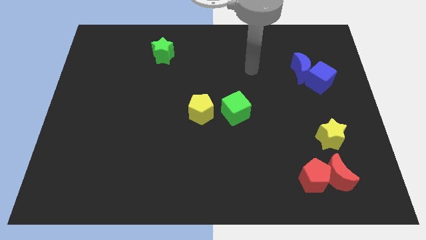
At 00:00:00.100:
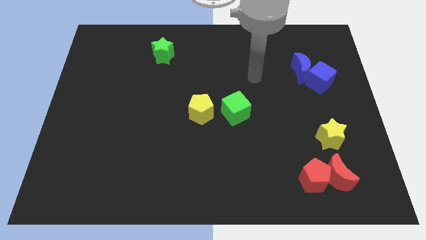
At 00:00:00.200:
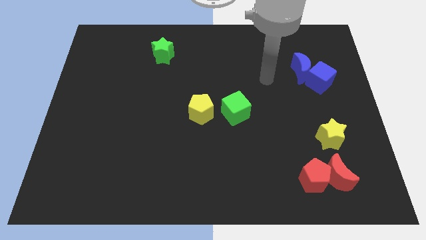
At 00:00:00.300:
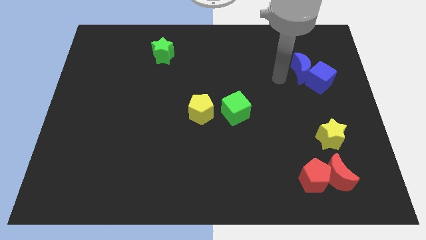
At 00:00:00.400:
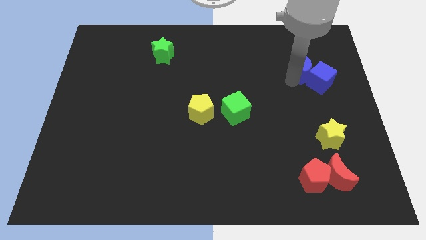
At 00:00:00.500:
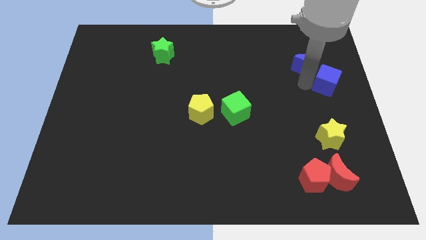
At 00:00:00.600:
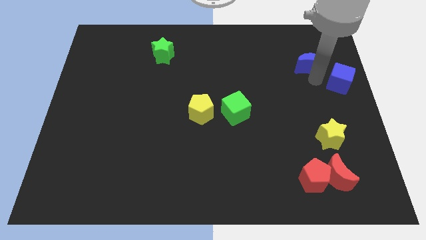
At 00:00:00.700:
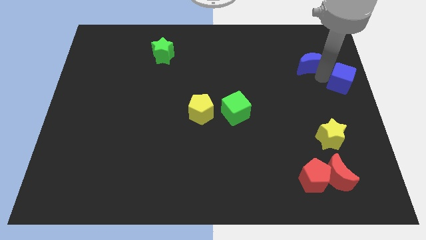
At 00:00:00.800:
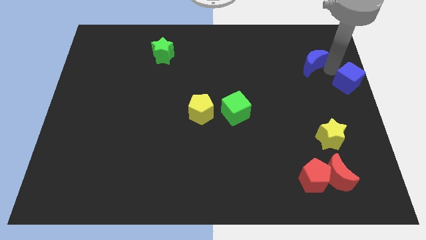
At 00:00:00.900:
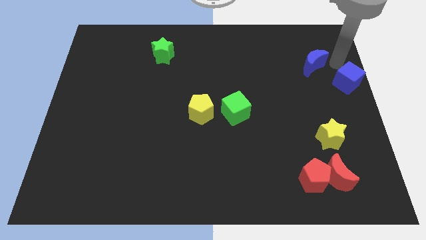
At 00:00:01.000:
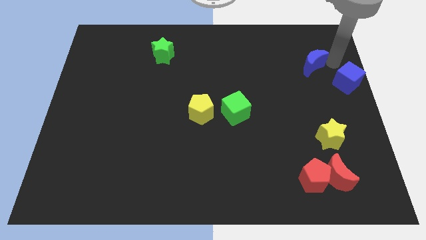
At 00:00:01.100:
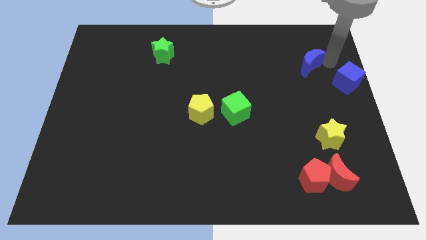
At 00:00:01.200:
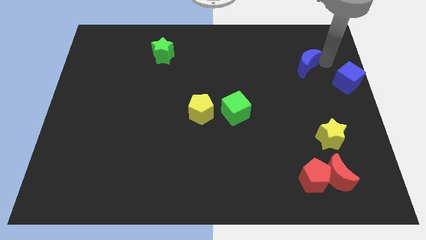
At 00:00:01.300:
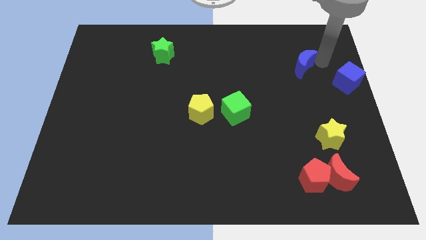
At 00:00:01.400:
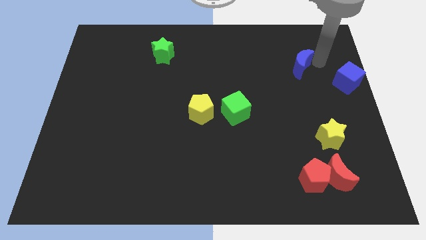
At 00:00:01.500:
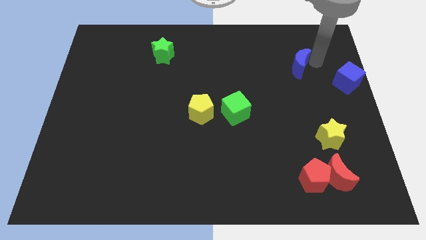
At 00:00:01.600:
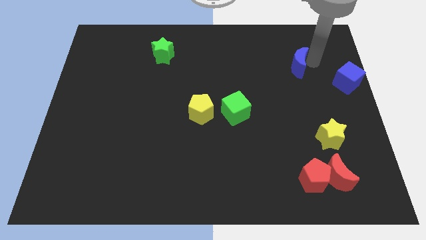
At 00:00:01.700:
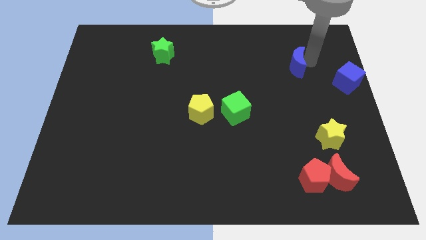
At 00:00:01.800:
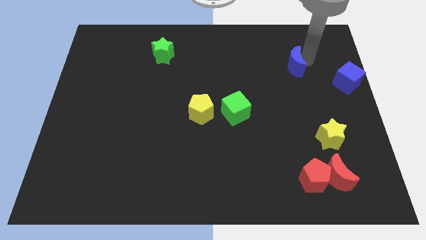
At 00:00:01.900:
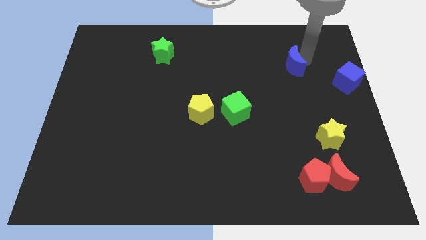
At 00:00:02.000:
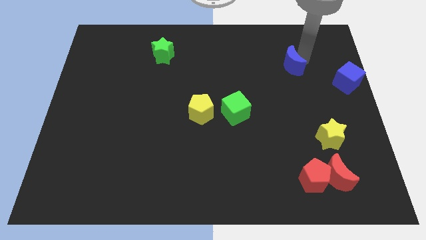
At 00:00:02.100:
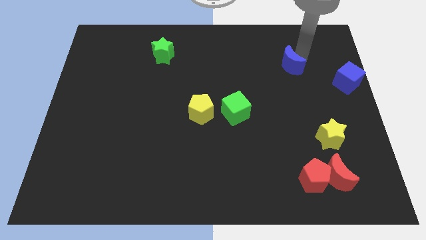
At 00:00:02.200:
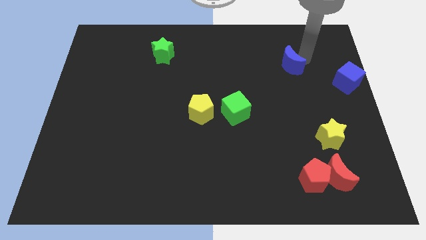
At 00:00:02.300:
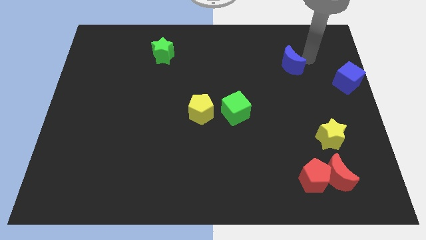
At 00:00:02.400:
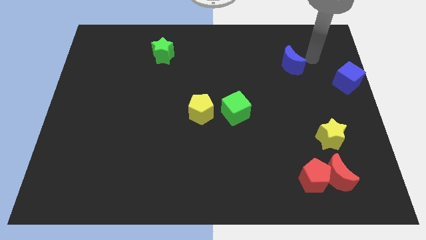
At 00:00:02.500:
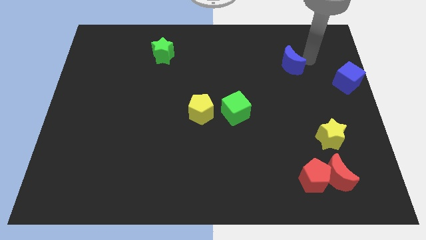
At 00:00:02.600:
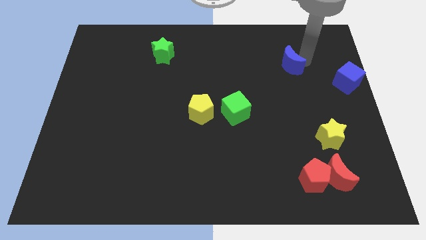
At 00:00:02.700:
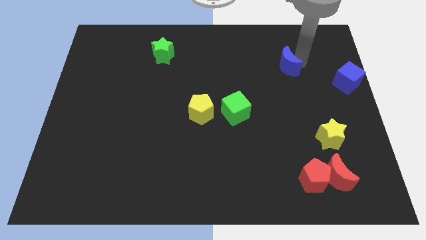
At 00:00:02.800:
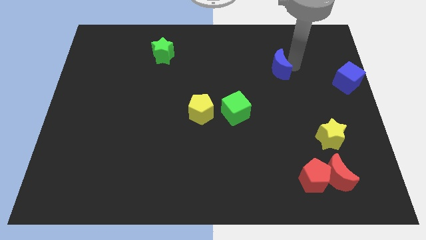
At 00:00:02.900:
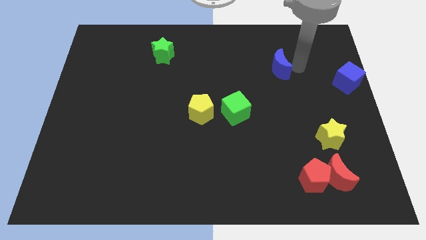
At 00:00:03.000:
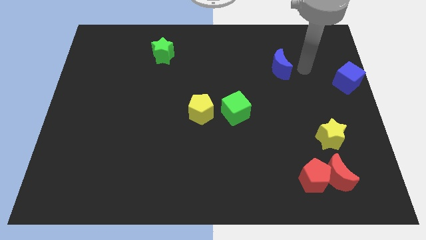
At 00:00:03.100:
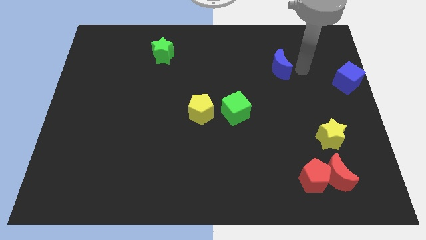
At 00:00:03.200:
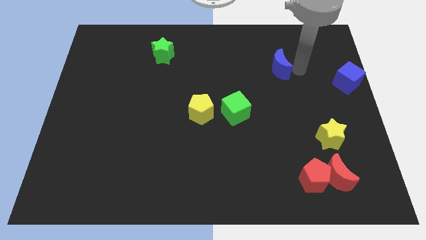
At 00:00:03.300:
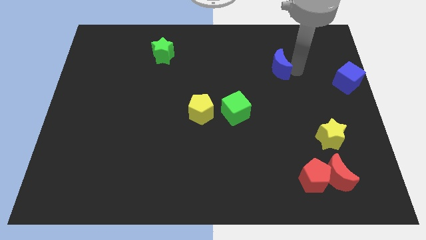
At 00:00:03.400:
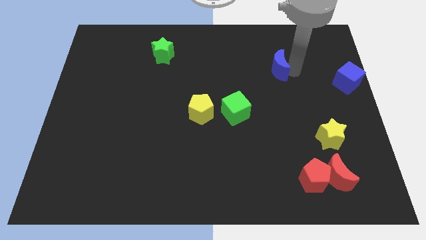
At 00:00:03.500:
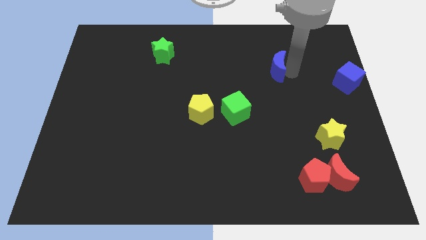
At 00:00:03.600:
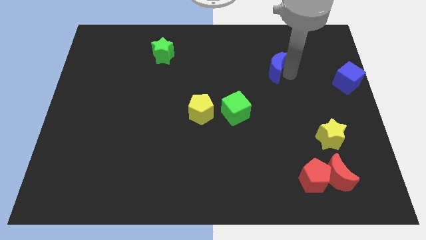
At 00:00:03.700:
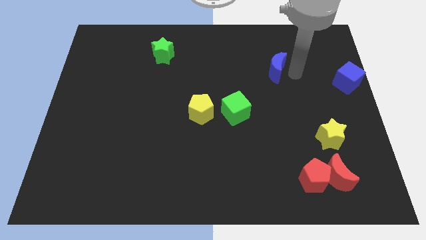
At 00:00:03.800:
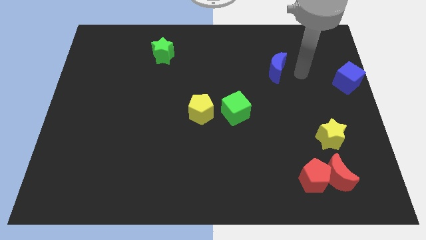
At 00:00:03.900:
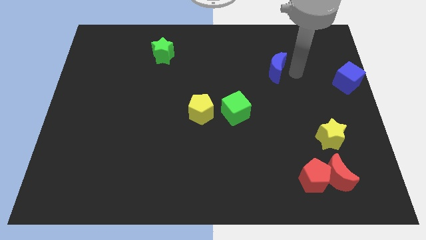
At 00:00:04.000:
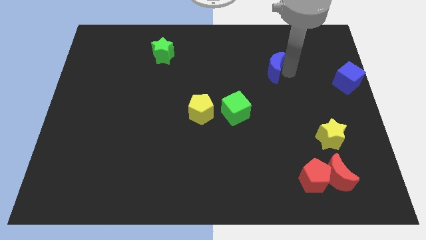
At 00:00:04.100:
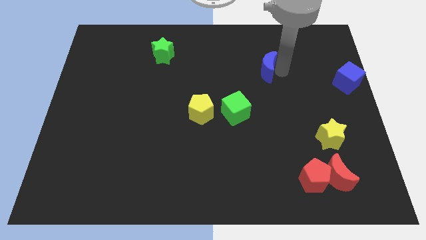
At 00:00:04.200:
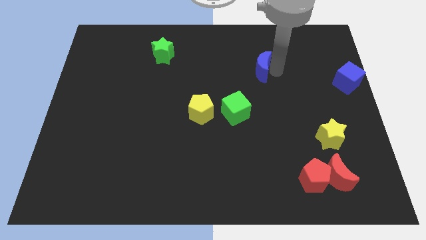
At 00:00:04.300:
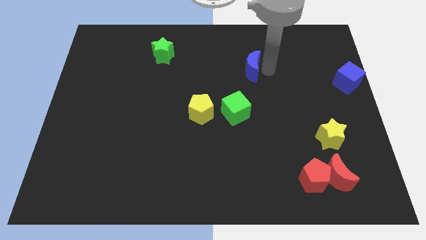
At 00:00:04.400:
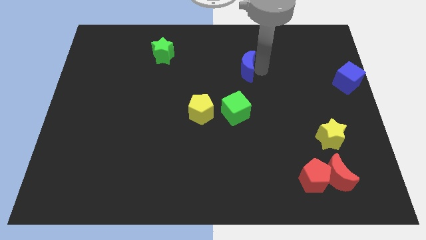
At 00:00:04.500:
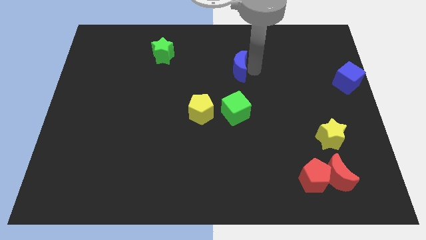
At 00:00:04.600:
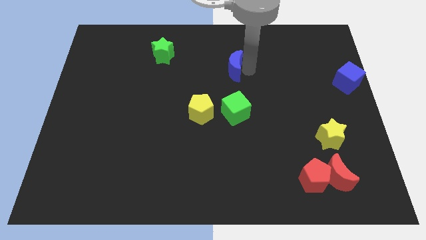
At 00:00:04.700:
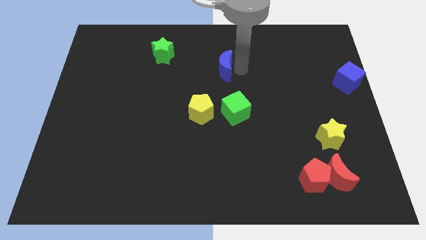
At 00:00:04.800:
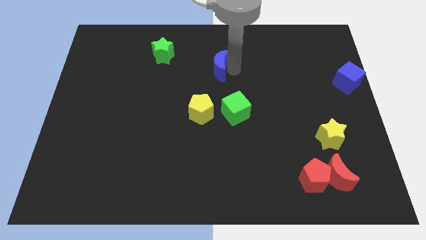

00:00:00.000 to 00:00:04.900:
slide the blue moon to the left

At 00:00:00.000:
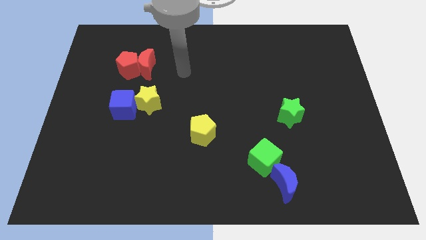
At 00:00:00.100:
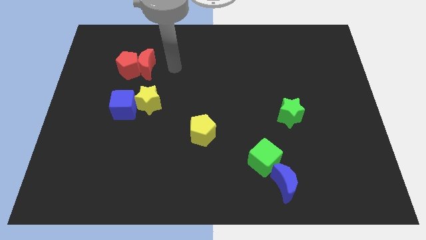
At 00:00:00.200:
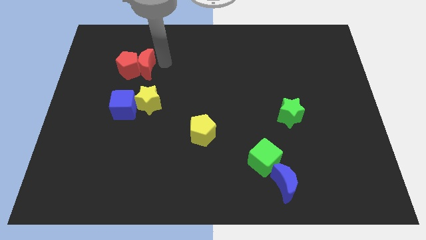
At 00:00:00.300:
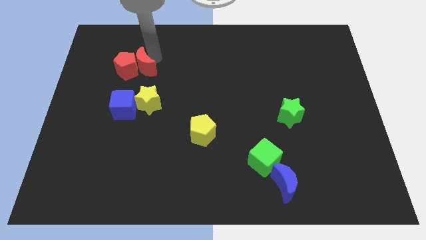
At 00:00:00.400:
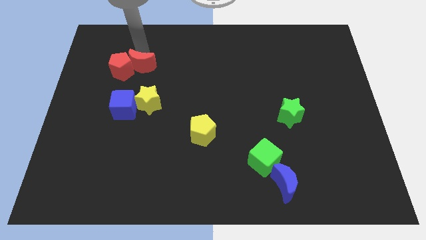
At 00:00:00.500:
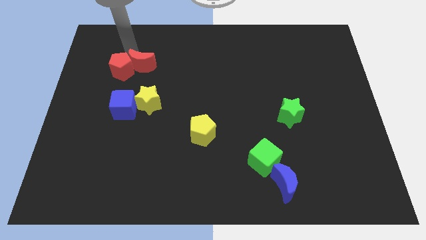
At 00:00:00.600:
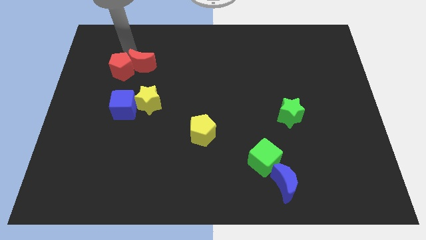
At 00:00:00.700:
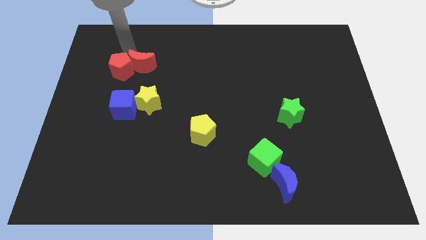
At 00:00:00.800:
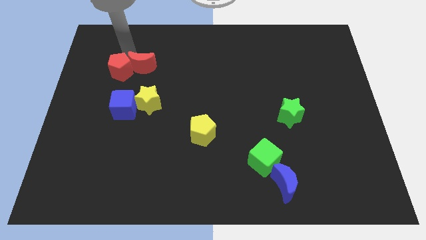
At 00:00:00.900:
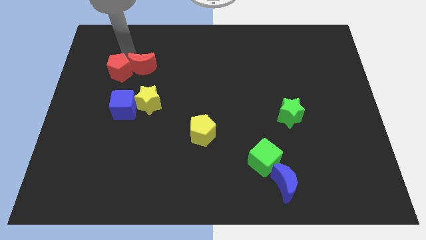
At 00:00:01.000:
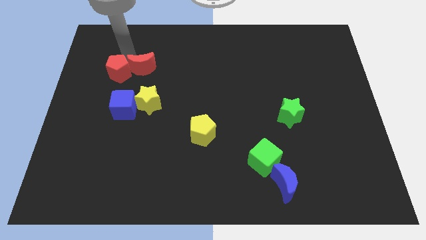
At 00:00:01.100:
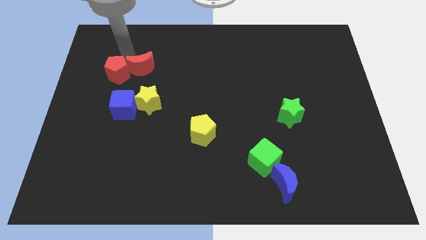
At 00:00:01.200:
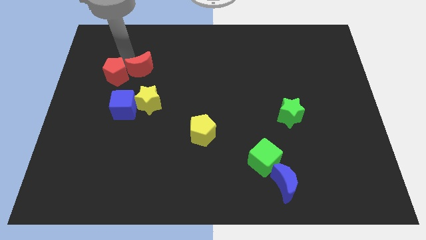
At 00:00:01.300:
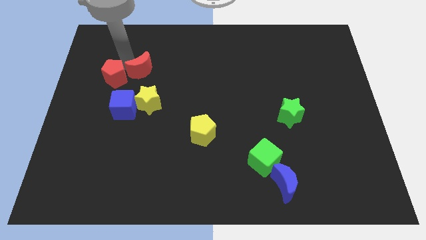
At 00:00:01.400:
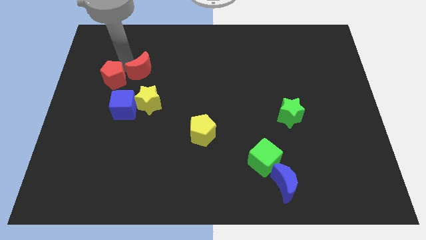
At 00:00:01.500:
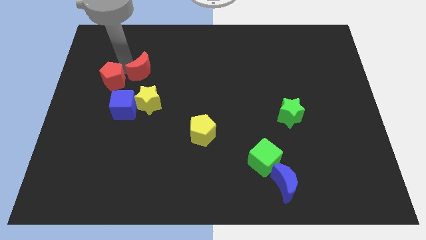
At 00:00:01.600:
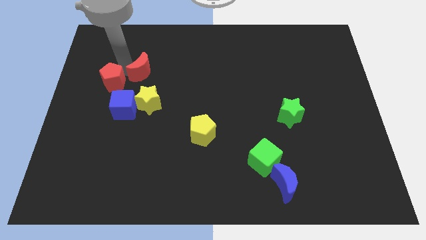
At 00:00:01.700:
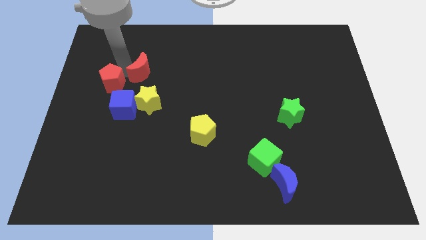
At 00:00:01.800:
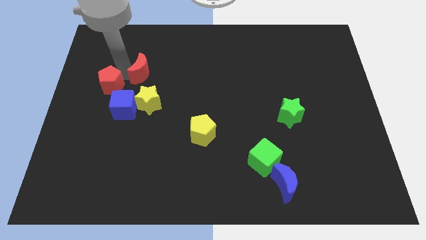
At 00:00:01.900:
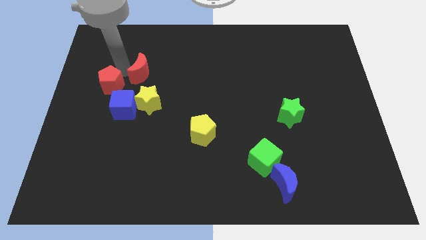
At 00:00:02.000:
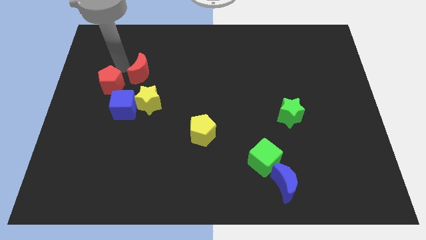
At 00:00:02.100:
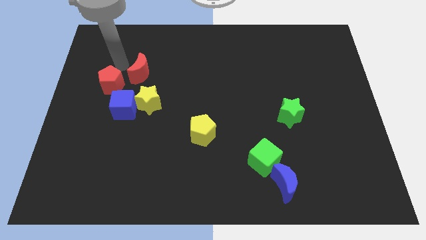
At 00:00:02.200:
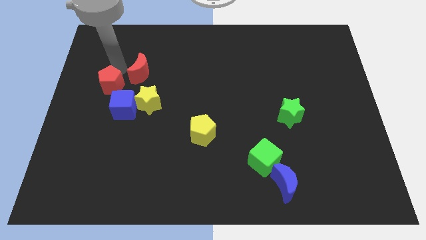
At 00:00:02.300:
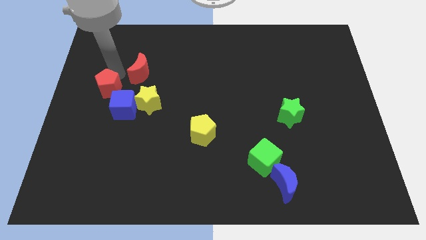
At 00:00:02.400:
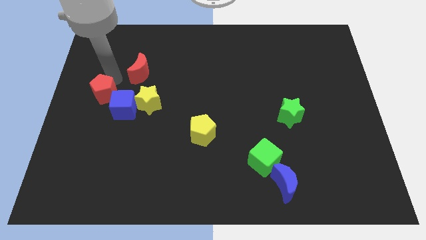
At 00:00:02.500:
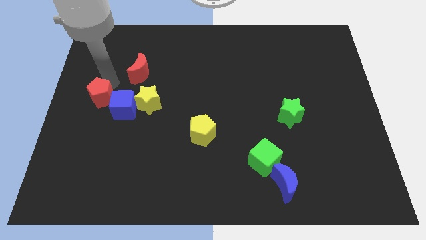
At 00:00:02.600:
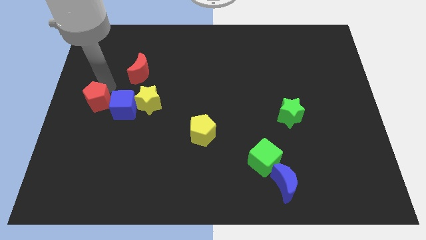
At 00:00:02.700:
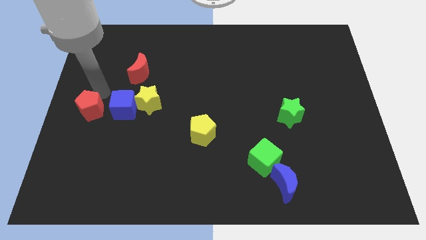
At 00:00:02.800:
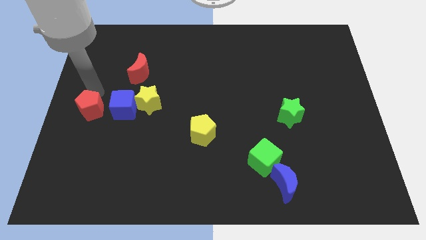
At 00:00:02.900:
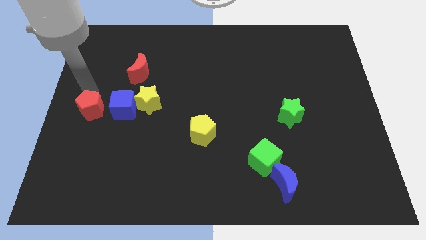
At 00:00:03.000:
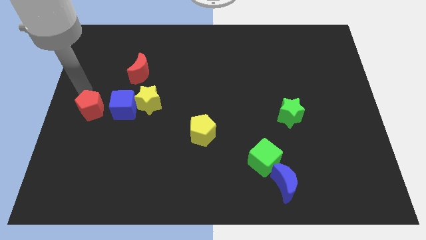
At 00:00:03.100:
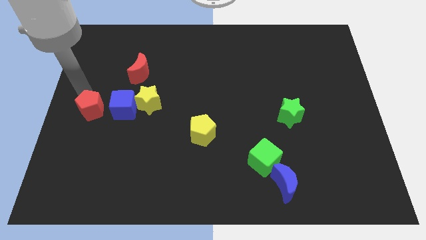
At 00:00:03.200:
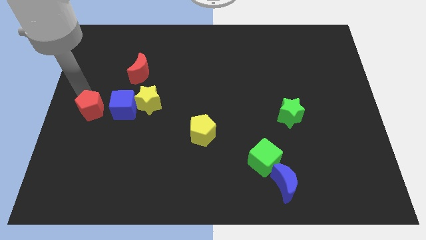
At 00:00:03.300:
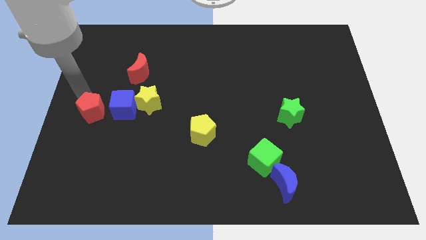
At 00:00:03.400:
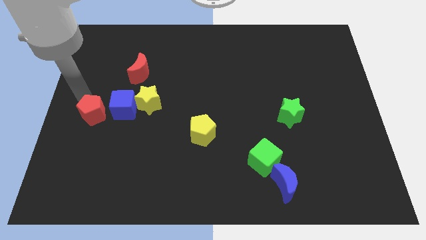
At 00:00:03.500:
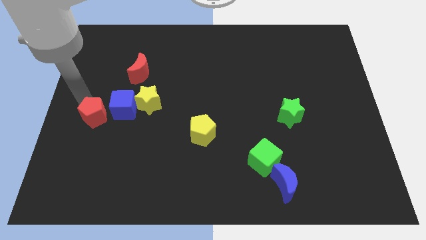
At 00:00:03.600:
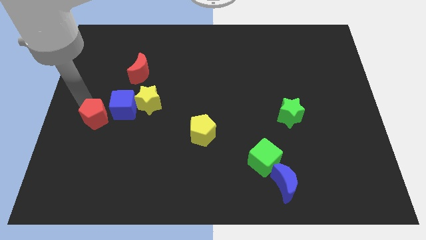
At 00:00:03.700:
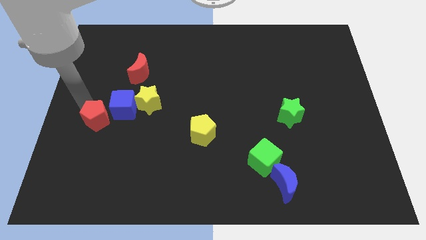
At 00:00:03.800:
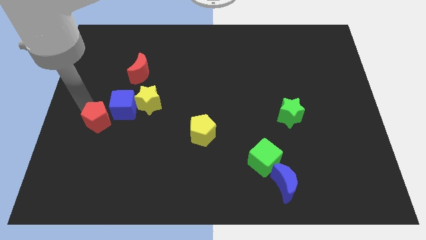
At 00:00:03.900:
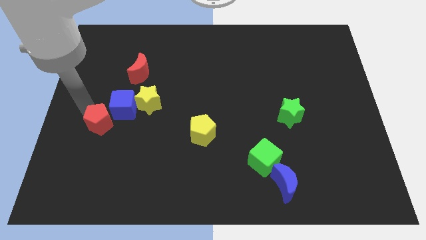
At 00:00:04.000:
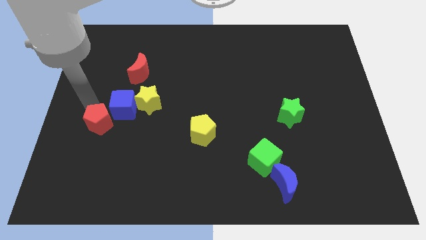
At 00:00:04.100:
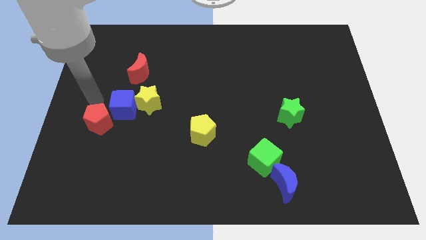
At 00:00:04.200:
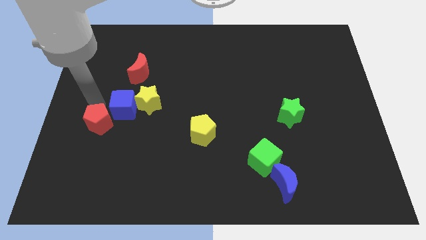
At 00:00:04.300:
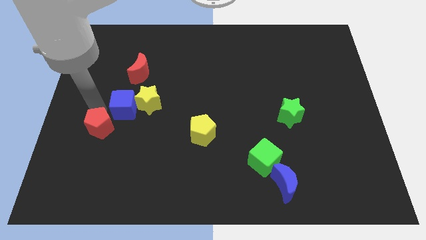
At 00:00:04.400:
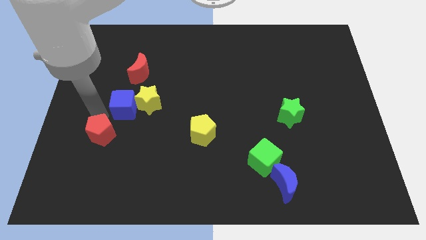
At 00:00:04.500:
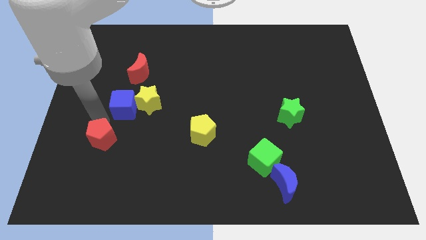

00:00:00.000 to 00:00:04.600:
move the red pentagon down
